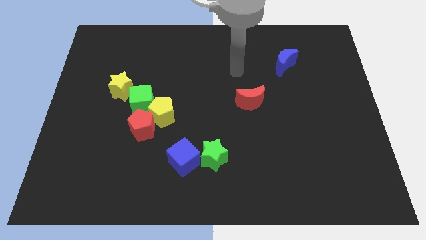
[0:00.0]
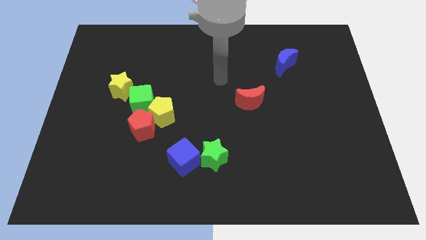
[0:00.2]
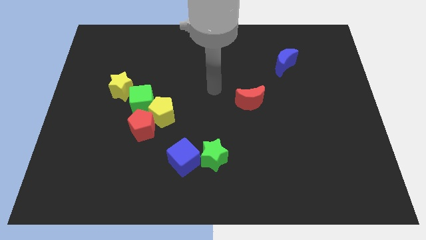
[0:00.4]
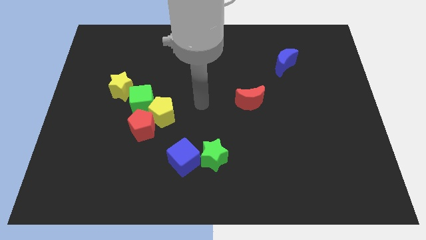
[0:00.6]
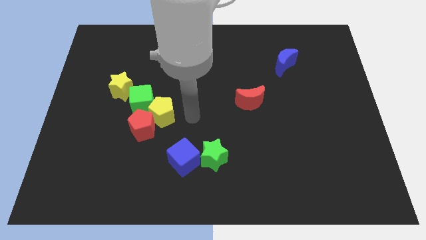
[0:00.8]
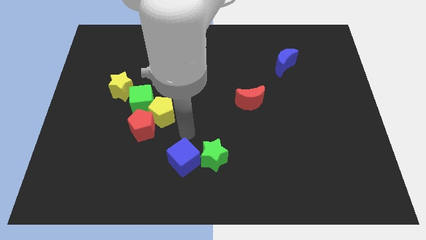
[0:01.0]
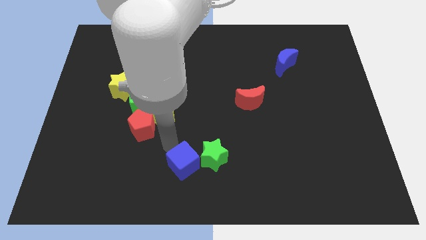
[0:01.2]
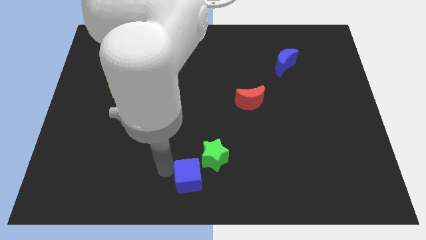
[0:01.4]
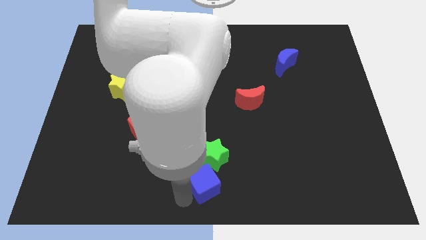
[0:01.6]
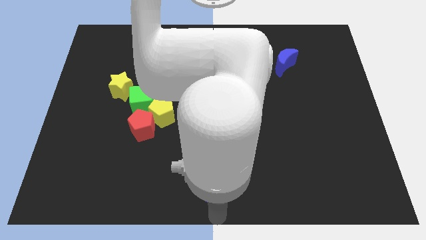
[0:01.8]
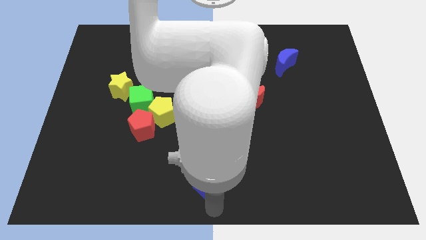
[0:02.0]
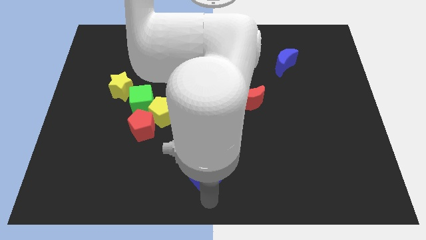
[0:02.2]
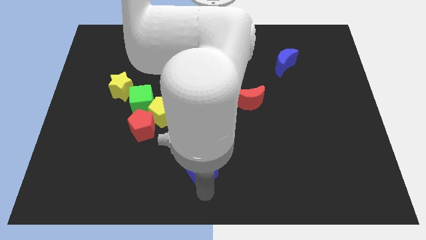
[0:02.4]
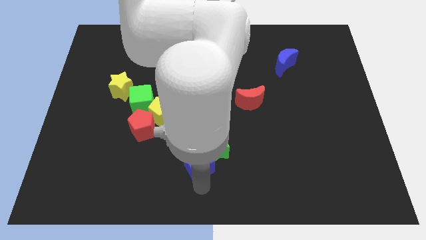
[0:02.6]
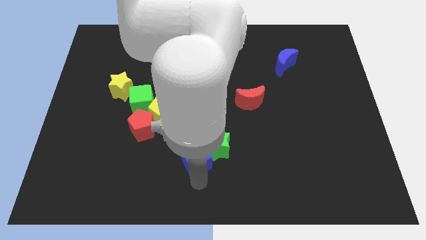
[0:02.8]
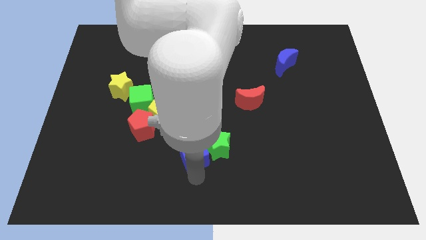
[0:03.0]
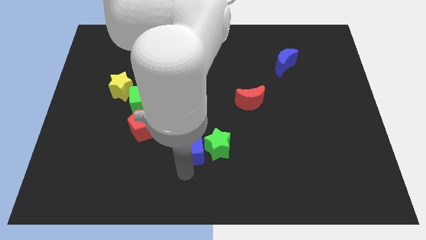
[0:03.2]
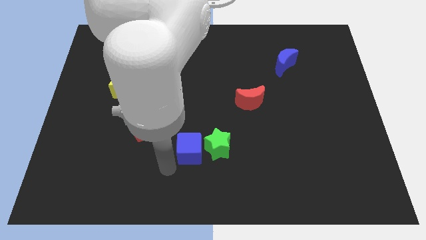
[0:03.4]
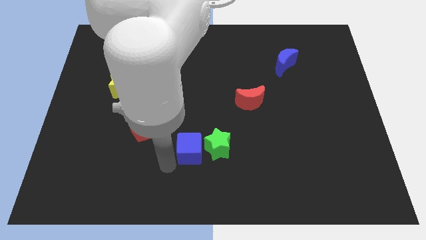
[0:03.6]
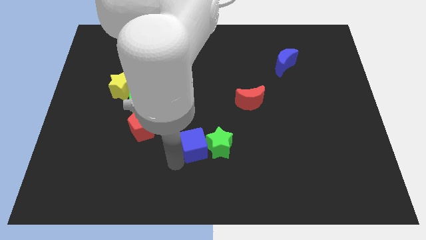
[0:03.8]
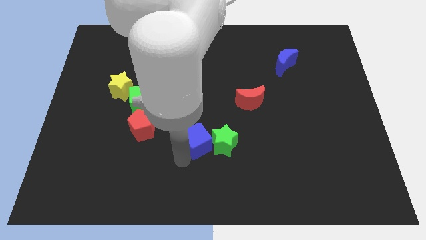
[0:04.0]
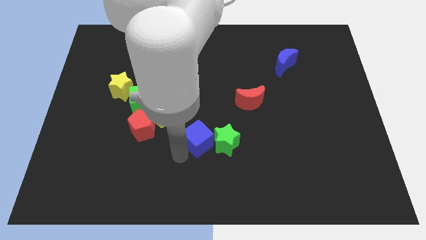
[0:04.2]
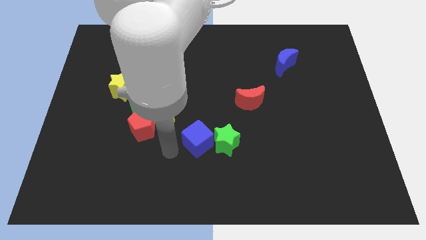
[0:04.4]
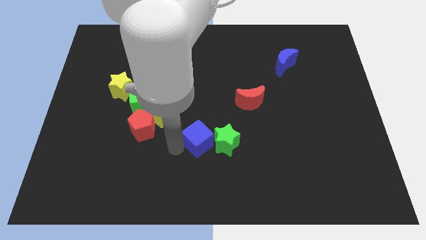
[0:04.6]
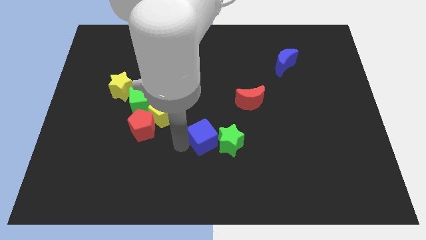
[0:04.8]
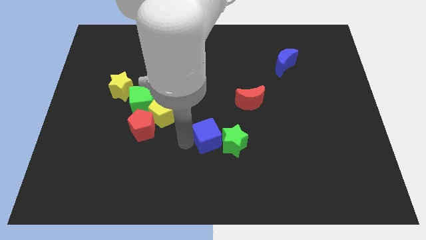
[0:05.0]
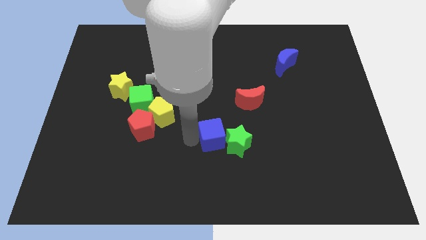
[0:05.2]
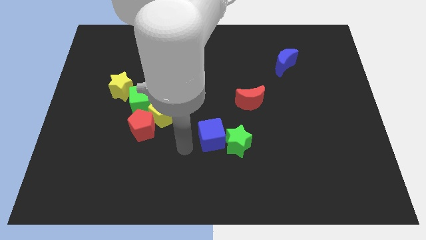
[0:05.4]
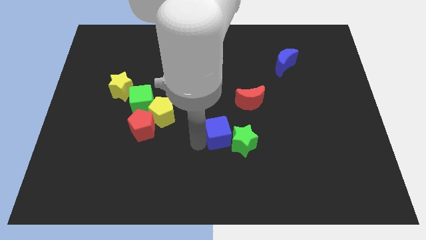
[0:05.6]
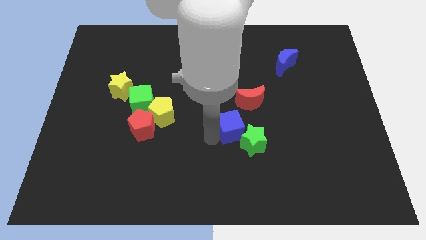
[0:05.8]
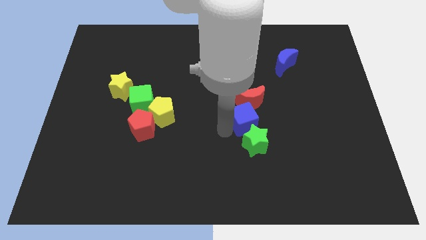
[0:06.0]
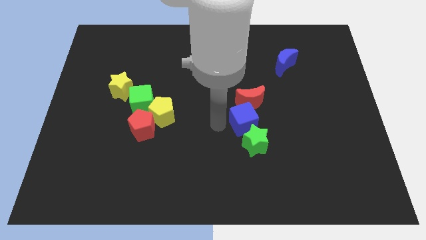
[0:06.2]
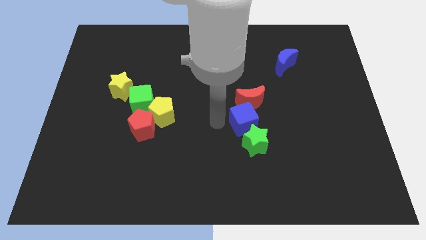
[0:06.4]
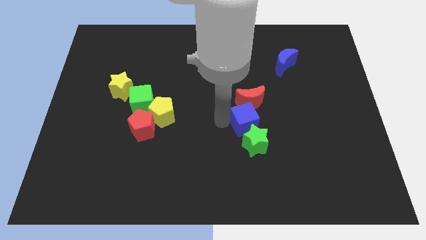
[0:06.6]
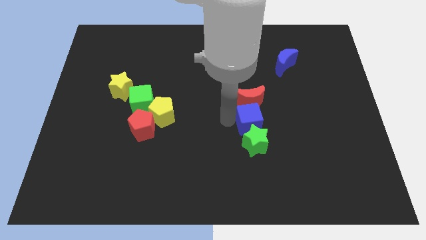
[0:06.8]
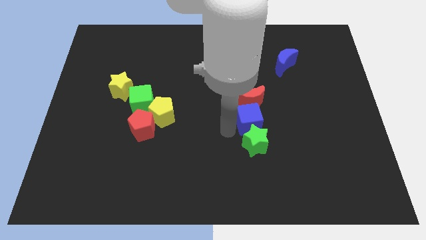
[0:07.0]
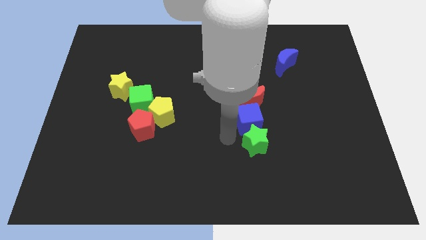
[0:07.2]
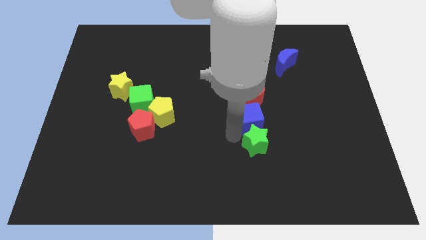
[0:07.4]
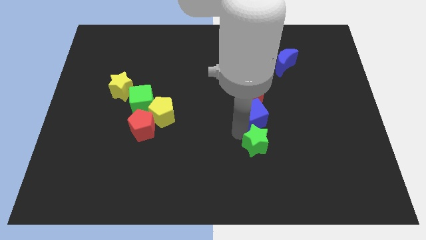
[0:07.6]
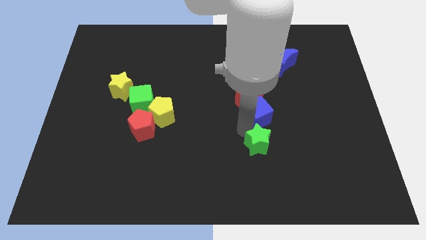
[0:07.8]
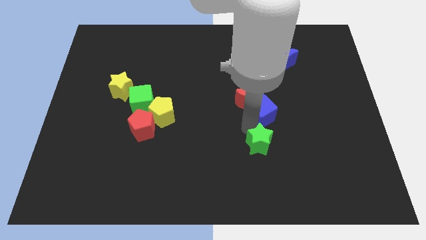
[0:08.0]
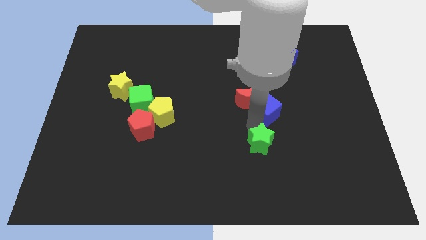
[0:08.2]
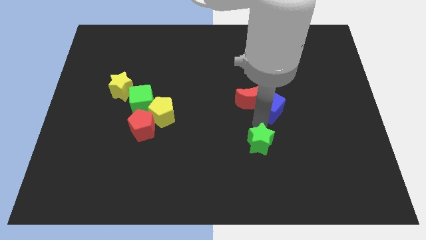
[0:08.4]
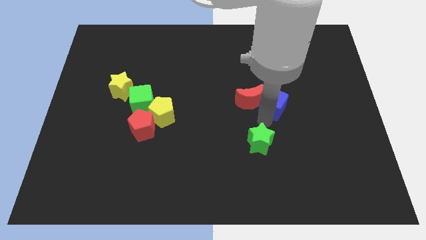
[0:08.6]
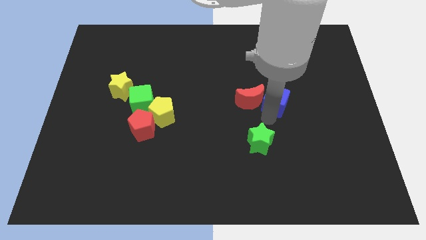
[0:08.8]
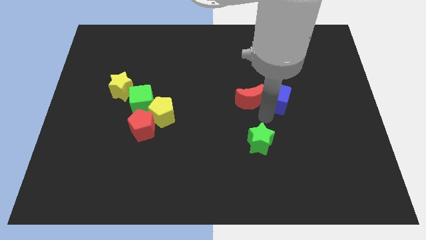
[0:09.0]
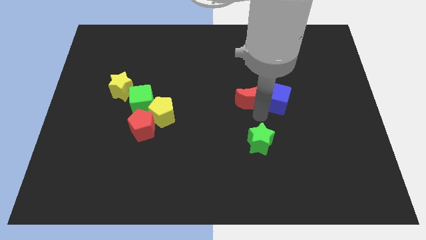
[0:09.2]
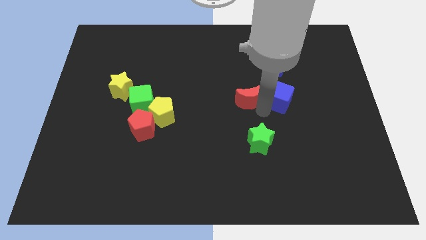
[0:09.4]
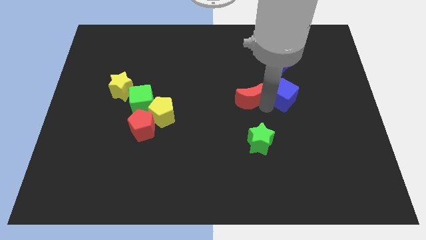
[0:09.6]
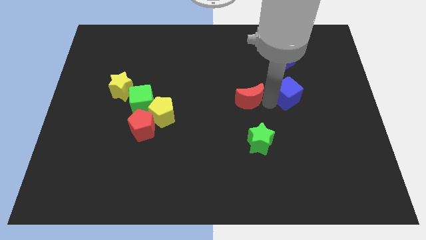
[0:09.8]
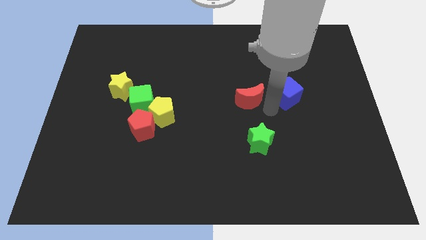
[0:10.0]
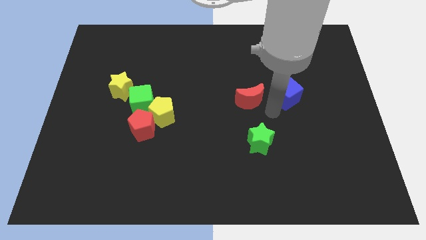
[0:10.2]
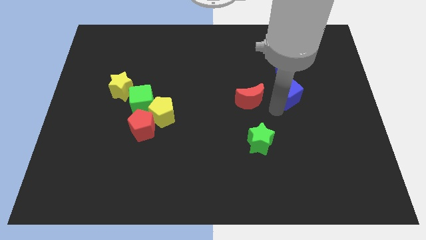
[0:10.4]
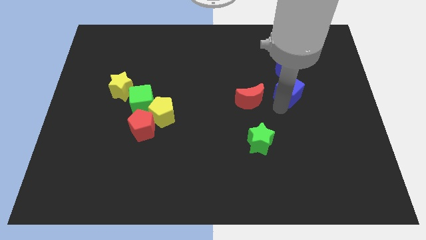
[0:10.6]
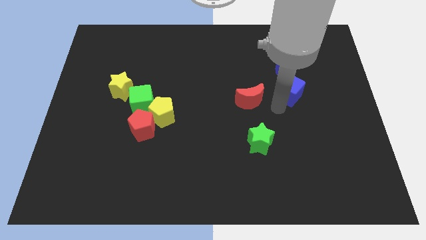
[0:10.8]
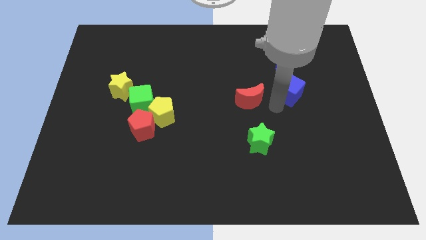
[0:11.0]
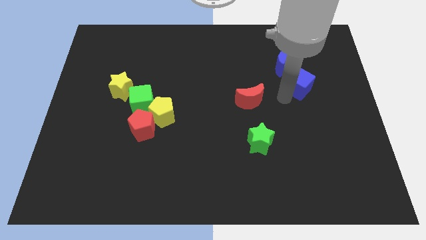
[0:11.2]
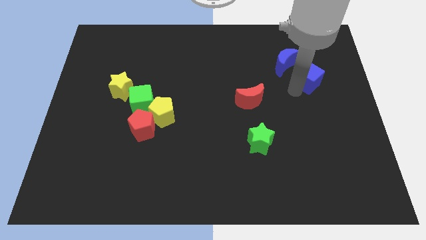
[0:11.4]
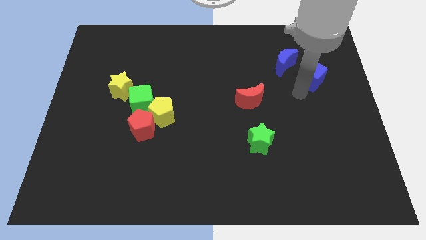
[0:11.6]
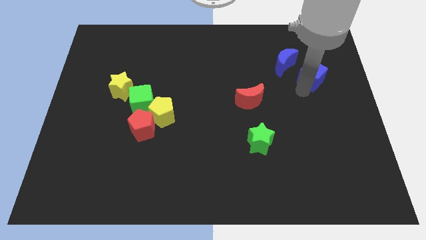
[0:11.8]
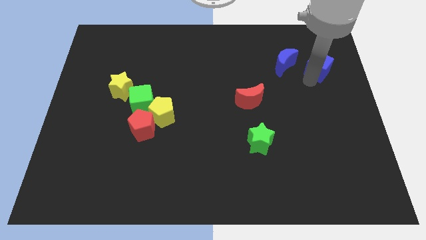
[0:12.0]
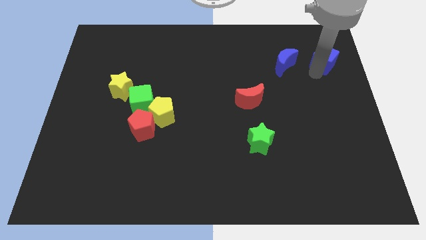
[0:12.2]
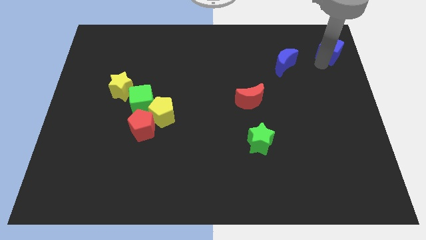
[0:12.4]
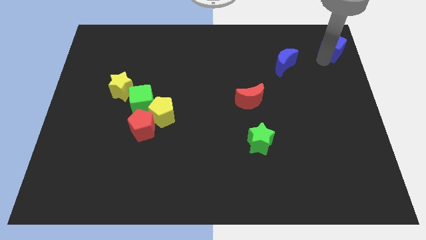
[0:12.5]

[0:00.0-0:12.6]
slide the blue cube to the upper right corner

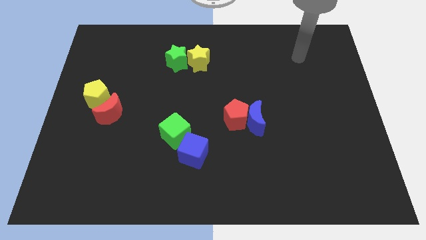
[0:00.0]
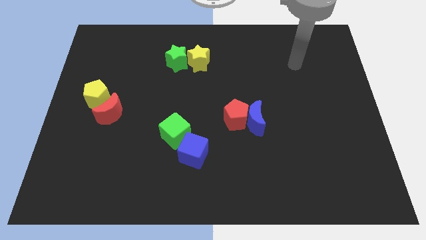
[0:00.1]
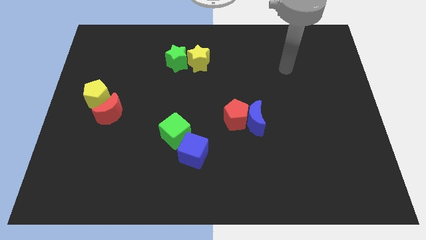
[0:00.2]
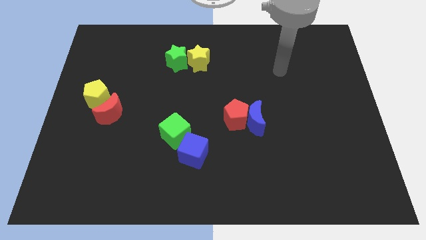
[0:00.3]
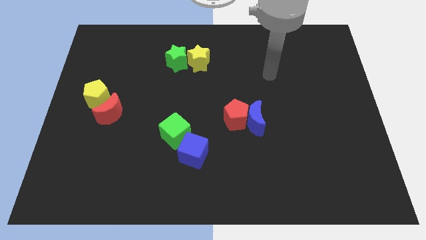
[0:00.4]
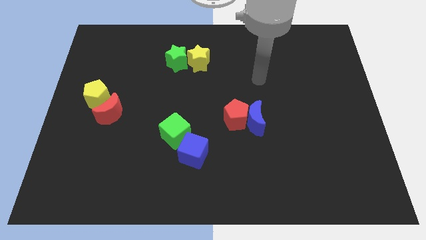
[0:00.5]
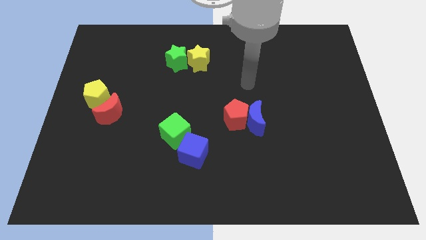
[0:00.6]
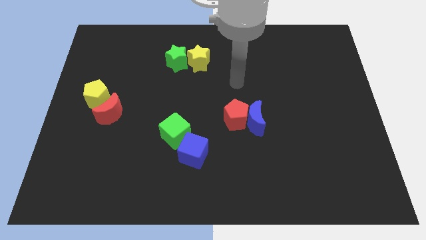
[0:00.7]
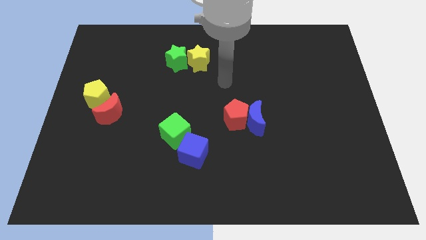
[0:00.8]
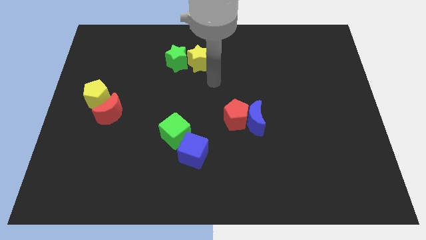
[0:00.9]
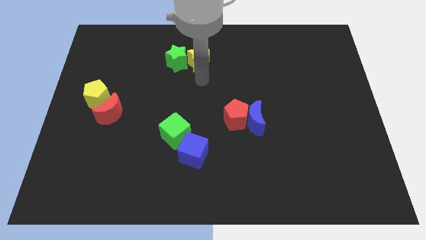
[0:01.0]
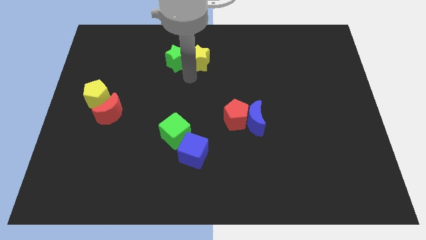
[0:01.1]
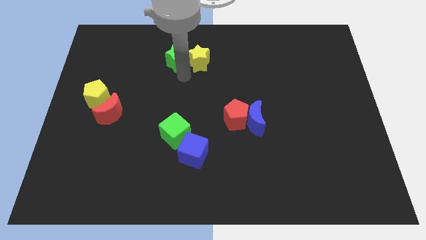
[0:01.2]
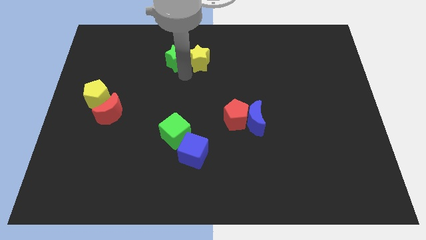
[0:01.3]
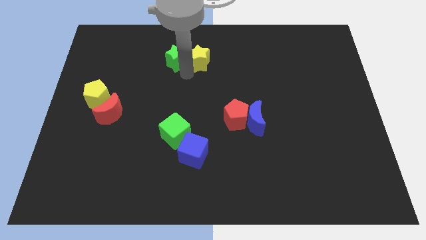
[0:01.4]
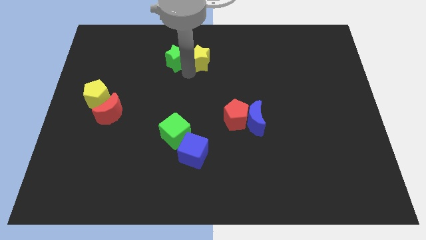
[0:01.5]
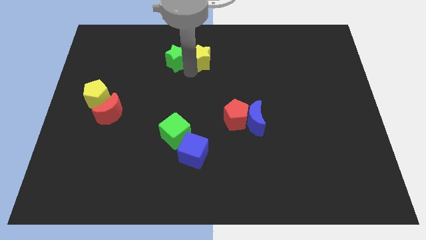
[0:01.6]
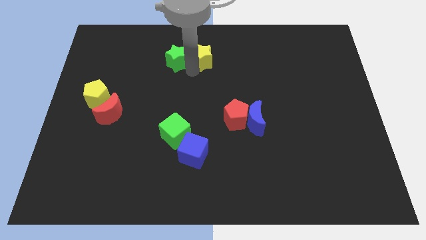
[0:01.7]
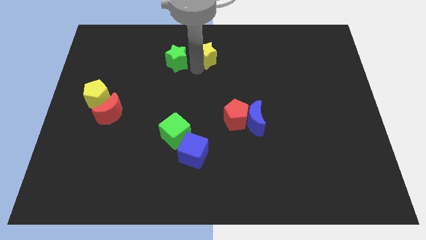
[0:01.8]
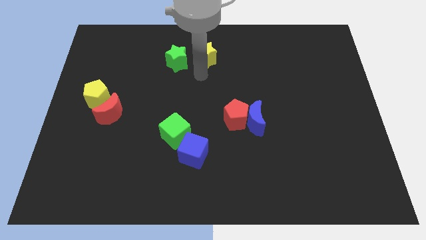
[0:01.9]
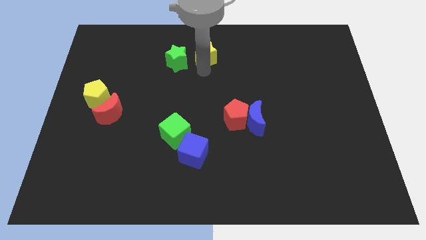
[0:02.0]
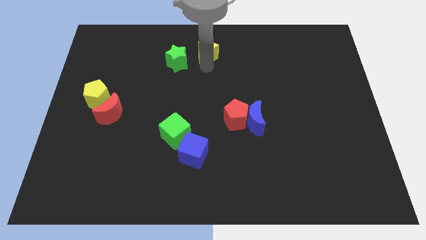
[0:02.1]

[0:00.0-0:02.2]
put the yellow star to the top
